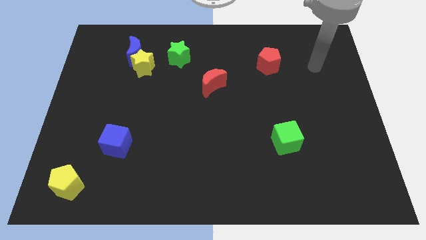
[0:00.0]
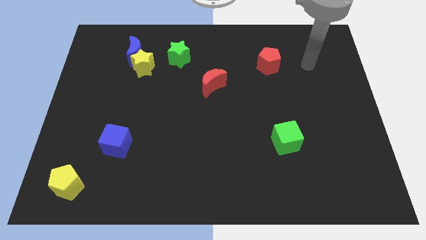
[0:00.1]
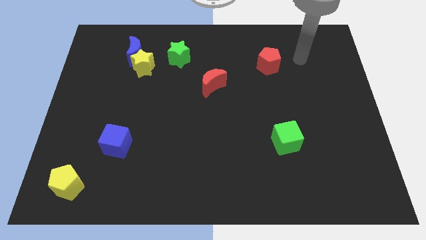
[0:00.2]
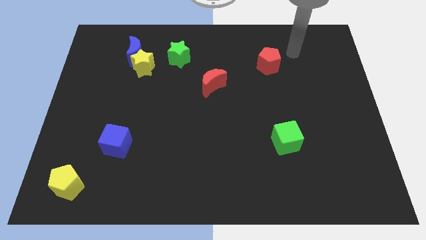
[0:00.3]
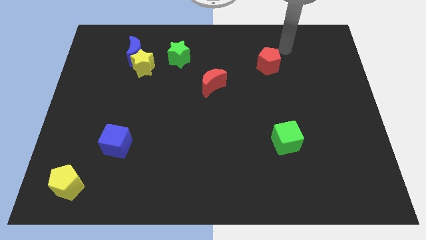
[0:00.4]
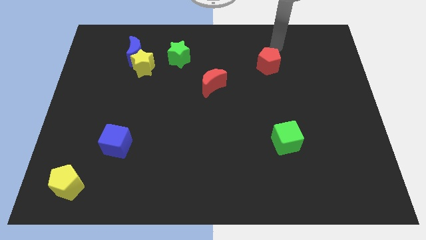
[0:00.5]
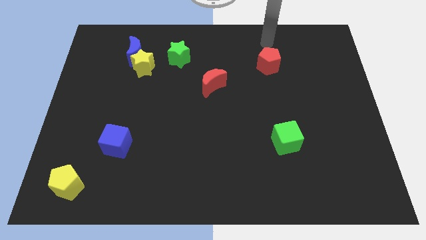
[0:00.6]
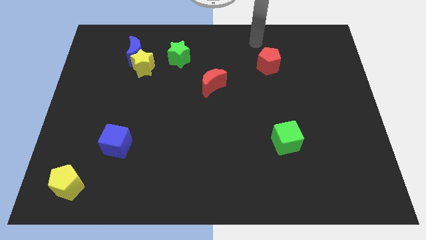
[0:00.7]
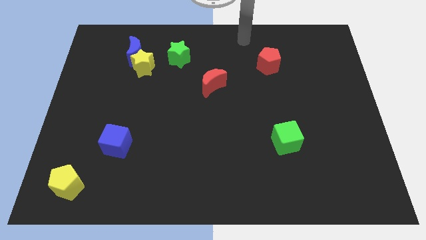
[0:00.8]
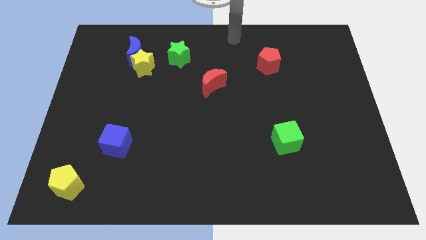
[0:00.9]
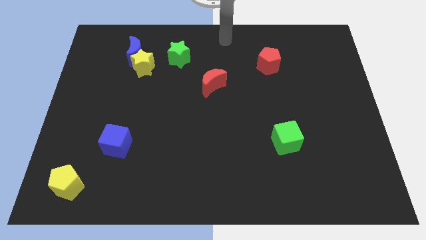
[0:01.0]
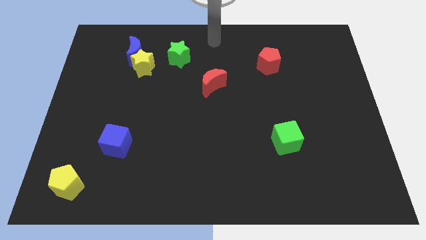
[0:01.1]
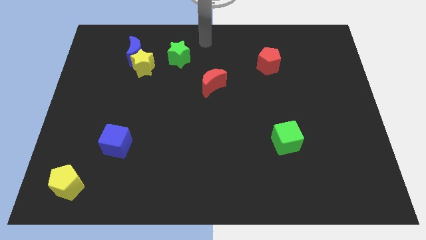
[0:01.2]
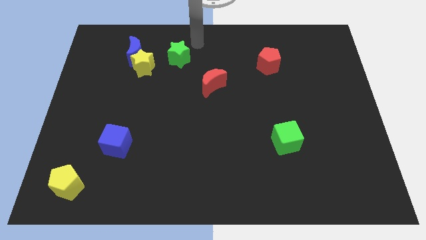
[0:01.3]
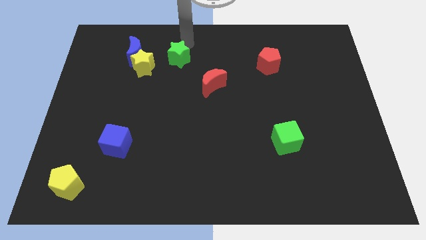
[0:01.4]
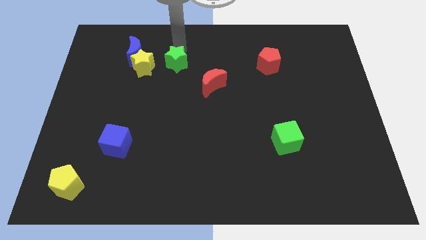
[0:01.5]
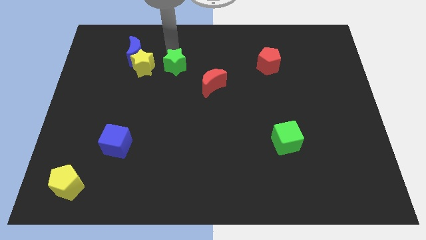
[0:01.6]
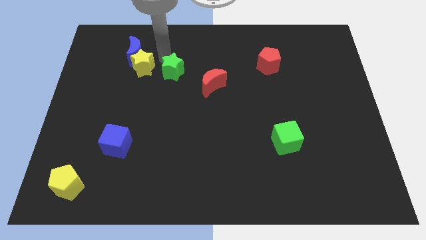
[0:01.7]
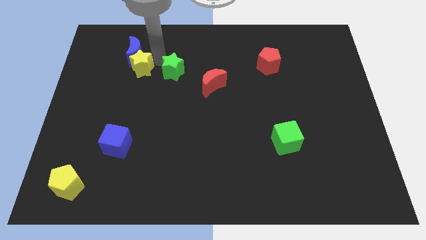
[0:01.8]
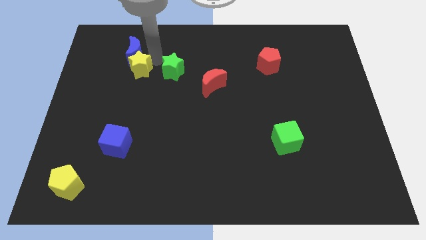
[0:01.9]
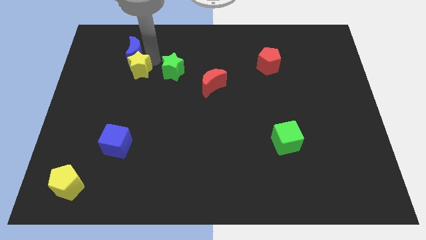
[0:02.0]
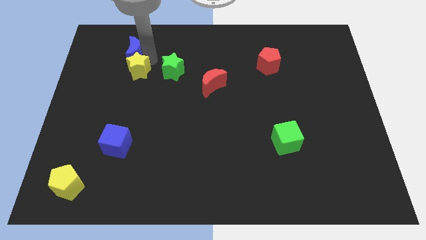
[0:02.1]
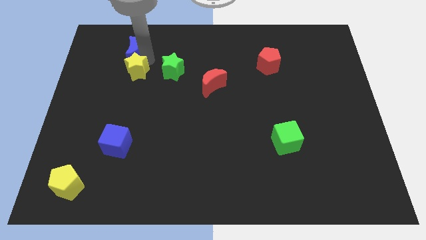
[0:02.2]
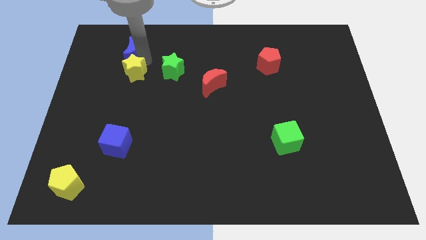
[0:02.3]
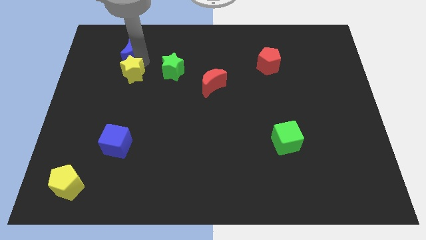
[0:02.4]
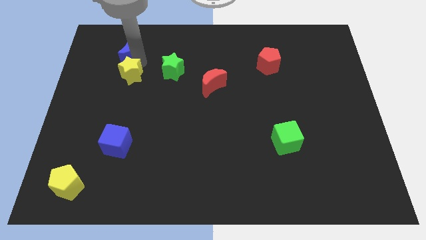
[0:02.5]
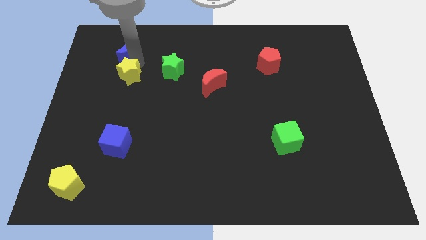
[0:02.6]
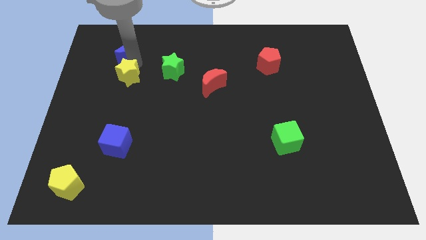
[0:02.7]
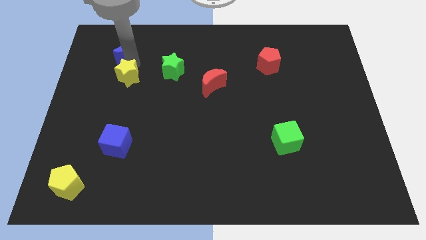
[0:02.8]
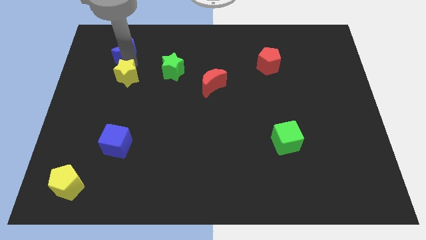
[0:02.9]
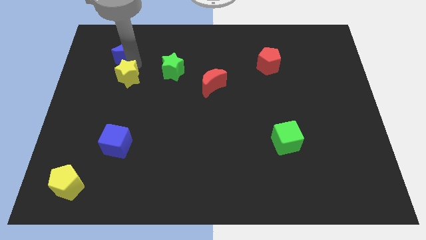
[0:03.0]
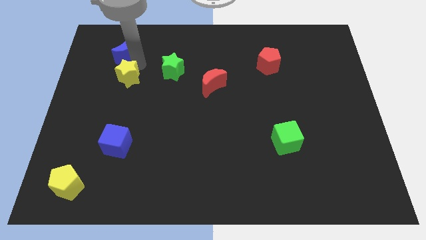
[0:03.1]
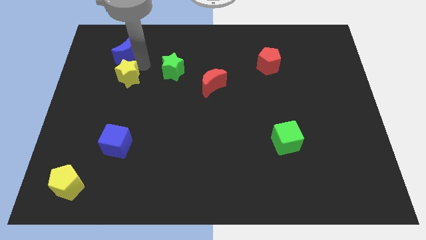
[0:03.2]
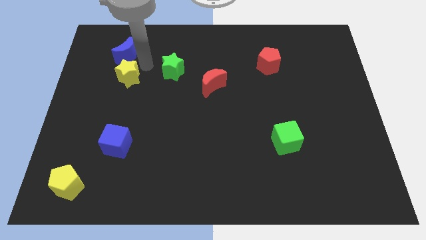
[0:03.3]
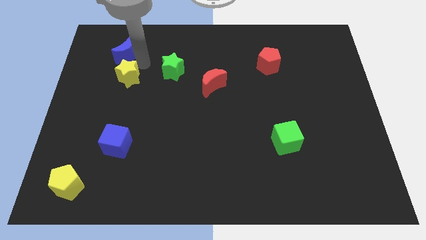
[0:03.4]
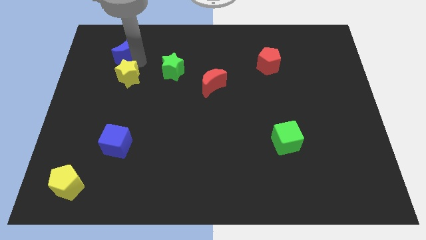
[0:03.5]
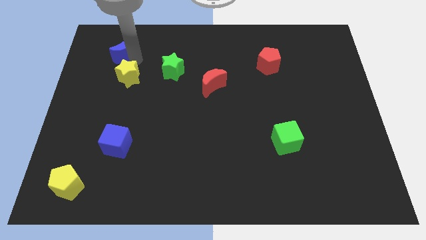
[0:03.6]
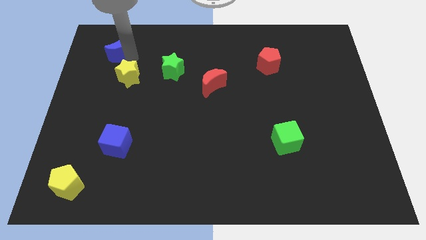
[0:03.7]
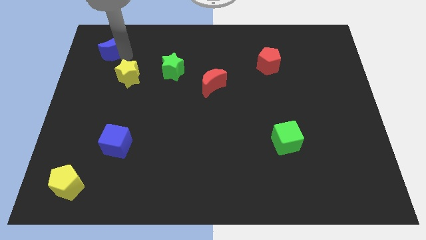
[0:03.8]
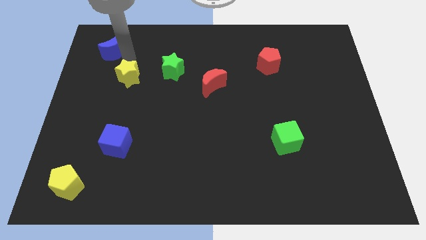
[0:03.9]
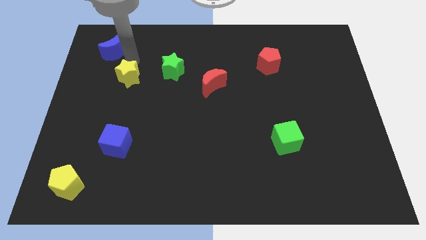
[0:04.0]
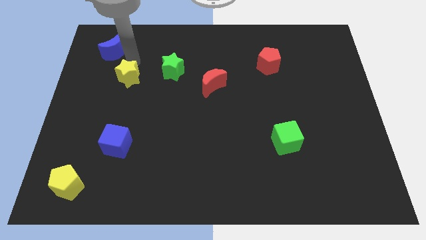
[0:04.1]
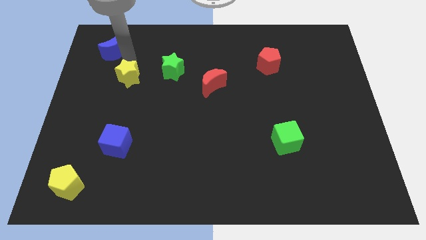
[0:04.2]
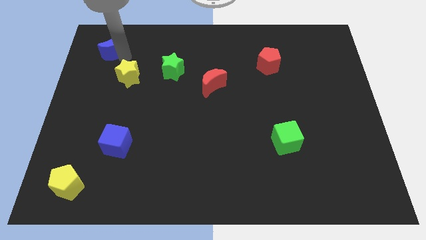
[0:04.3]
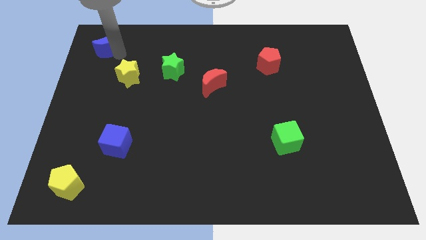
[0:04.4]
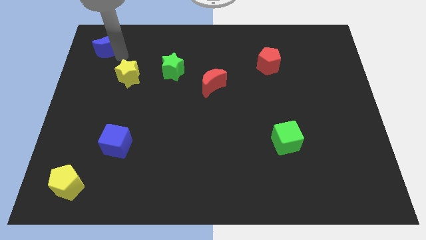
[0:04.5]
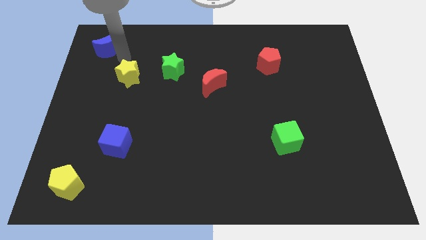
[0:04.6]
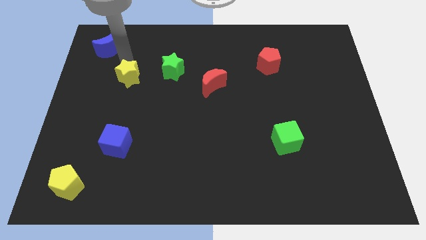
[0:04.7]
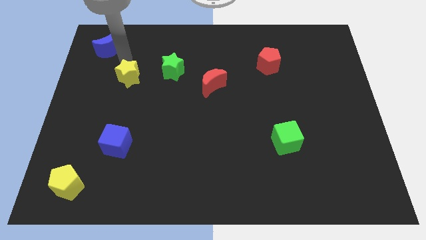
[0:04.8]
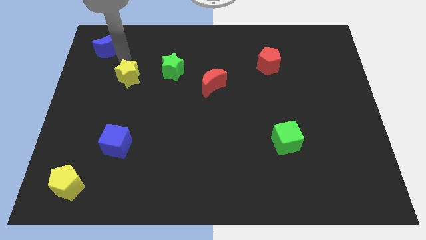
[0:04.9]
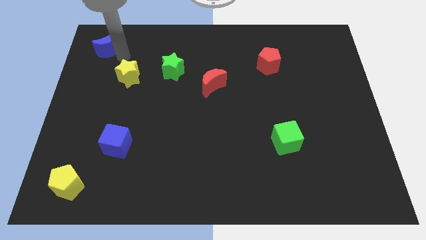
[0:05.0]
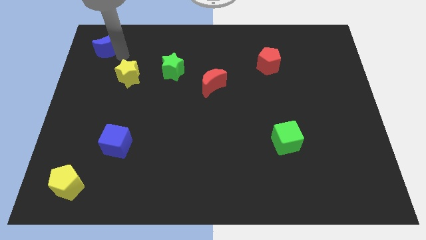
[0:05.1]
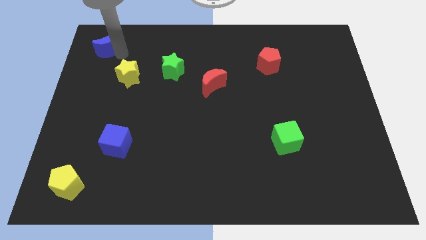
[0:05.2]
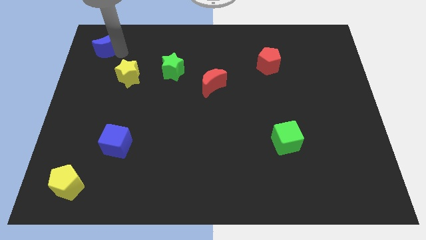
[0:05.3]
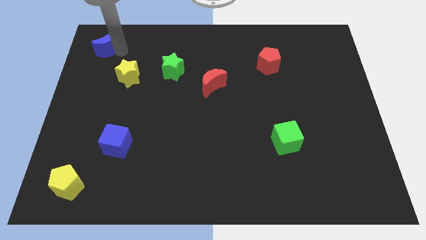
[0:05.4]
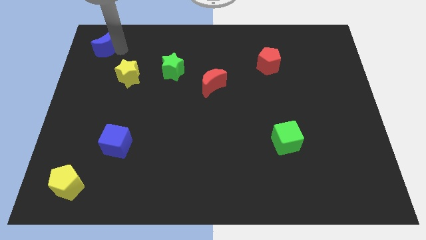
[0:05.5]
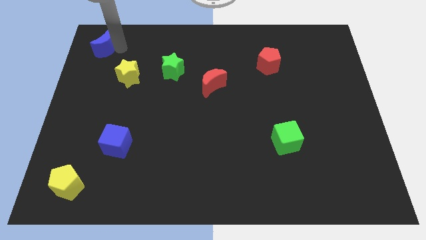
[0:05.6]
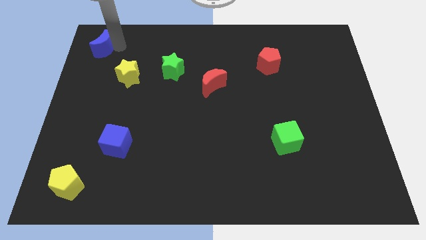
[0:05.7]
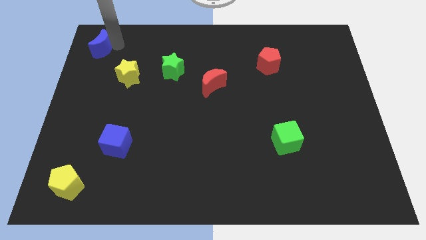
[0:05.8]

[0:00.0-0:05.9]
put the blue moon to the upper left corner

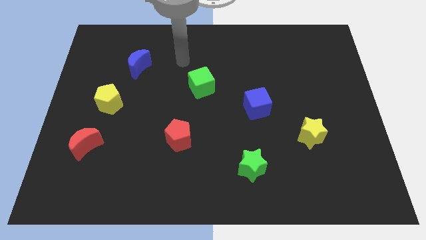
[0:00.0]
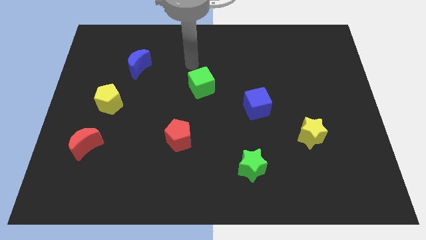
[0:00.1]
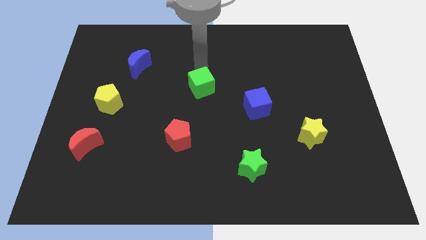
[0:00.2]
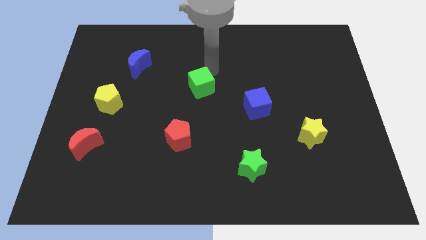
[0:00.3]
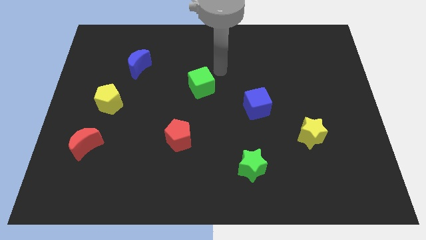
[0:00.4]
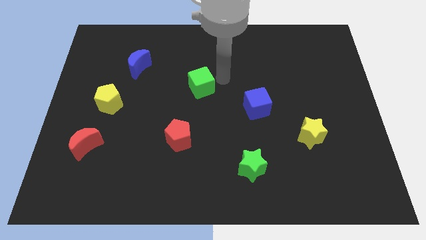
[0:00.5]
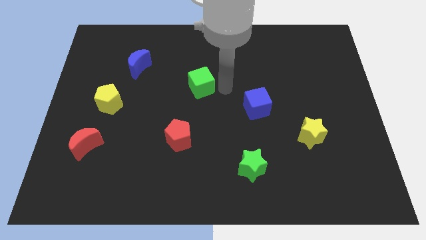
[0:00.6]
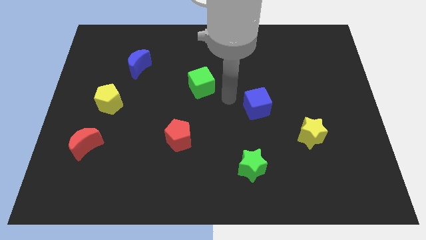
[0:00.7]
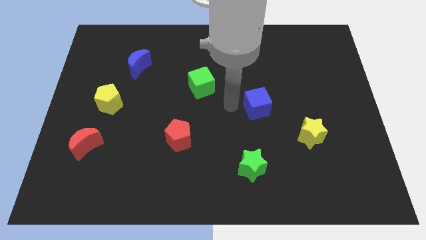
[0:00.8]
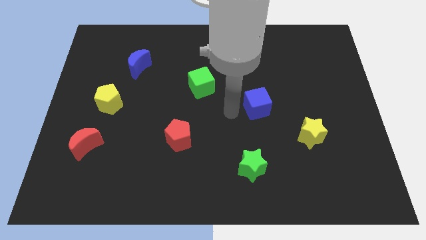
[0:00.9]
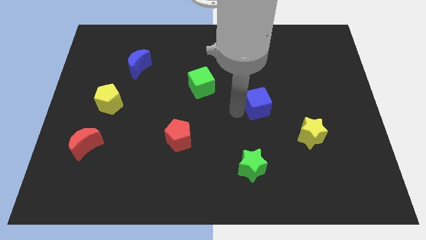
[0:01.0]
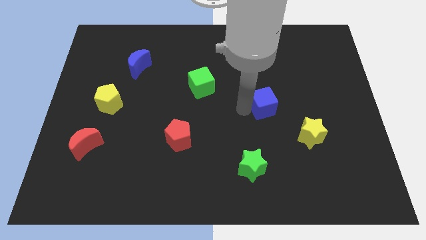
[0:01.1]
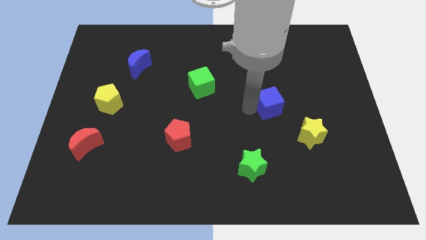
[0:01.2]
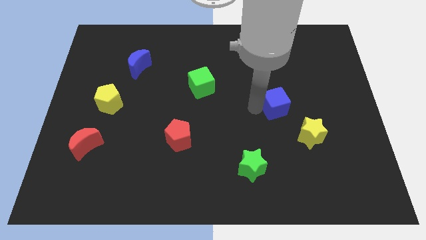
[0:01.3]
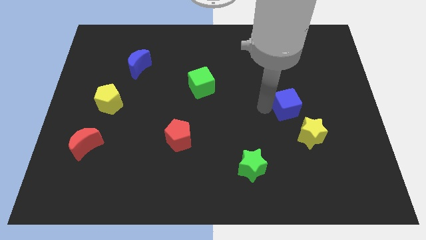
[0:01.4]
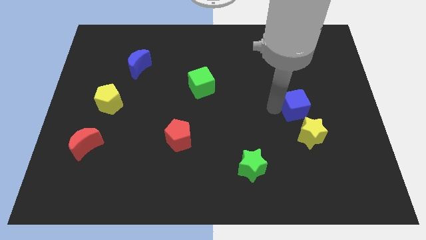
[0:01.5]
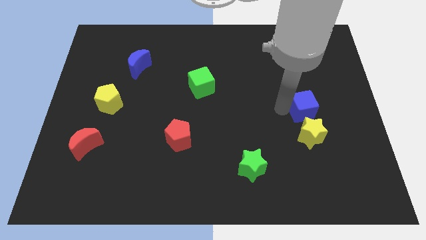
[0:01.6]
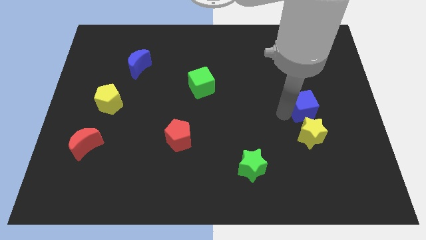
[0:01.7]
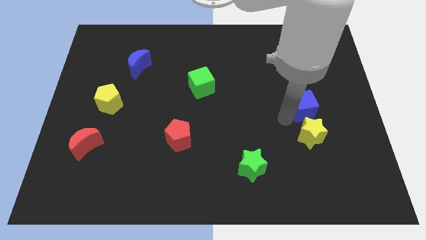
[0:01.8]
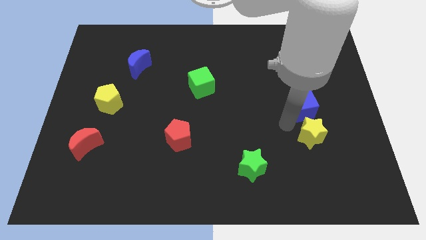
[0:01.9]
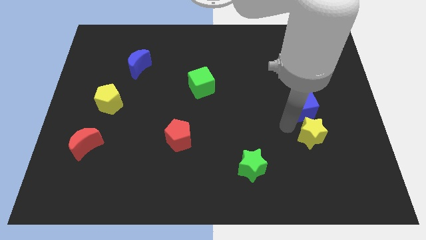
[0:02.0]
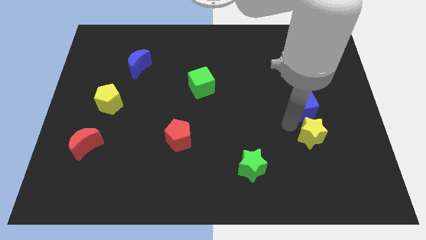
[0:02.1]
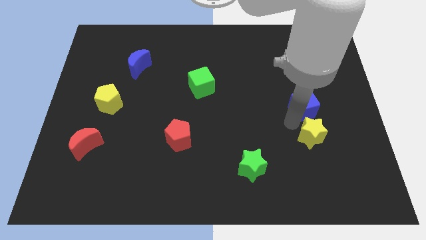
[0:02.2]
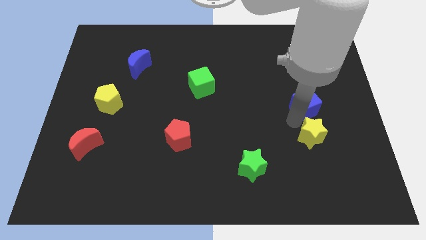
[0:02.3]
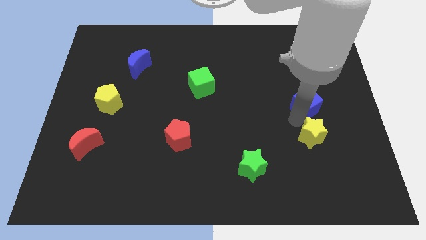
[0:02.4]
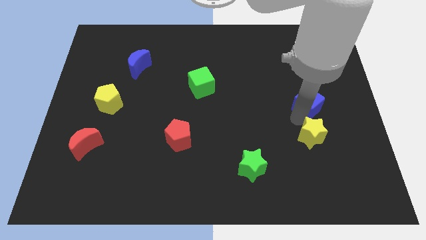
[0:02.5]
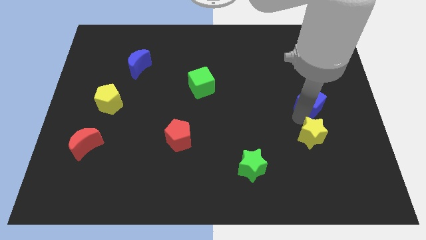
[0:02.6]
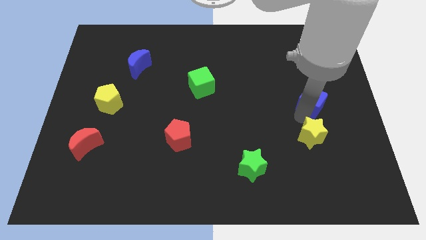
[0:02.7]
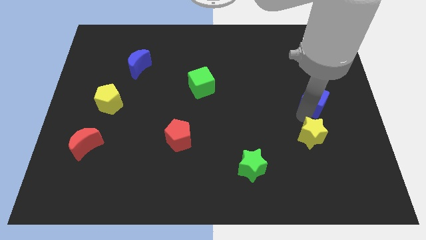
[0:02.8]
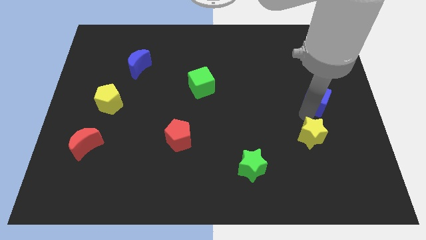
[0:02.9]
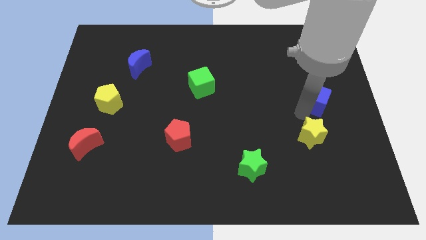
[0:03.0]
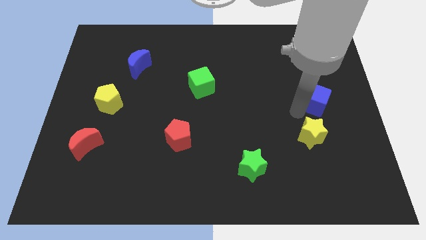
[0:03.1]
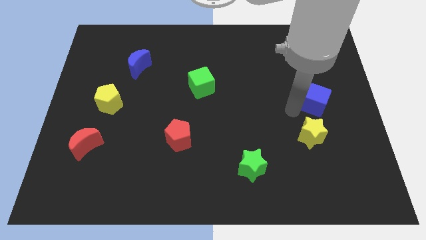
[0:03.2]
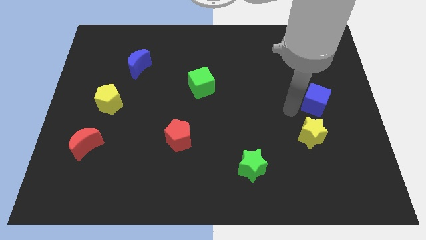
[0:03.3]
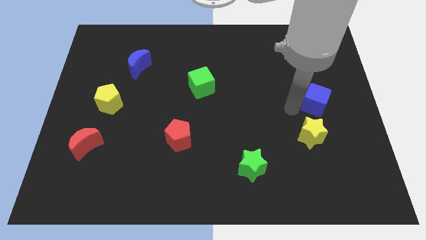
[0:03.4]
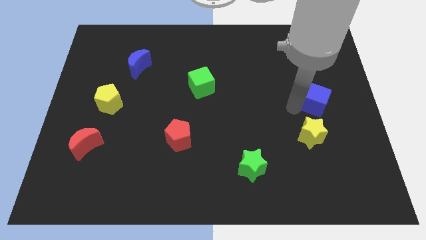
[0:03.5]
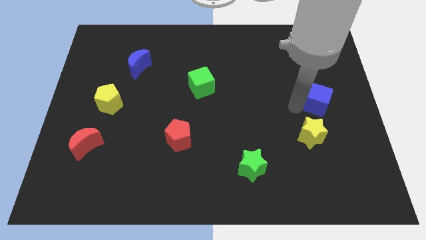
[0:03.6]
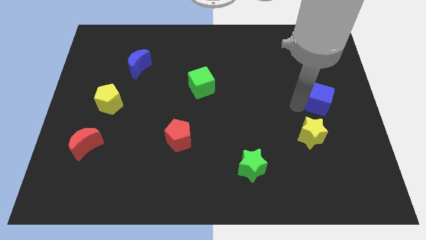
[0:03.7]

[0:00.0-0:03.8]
put the blue cube to the right side
